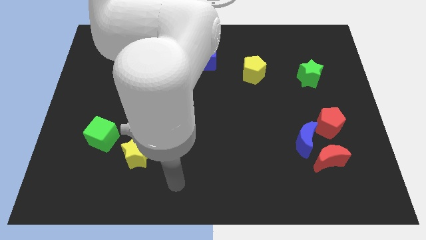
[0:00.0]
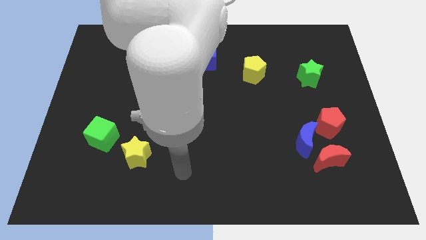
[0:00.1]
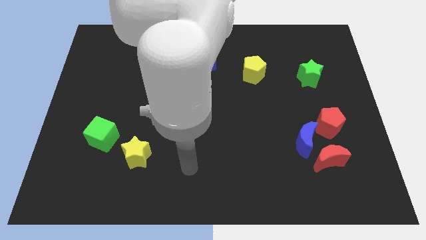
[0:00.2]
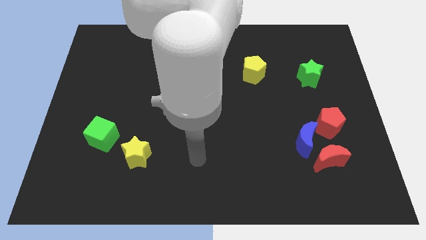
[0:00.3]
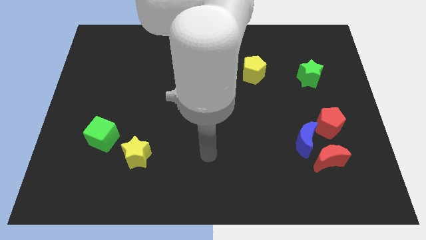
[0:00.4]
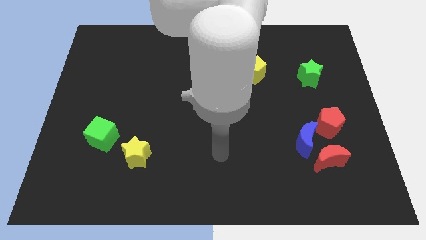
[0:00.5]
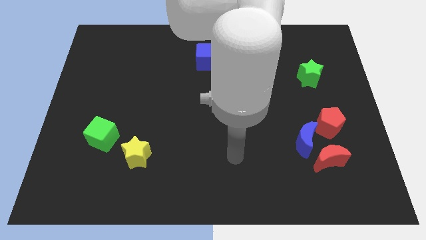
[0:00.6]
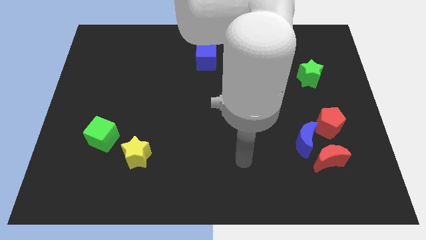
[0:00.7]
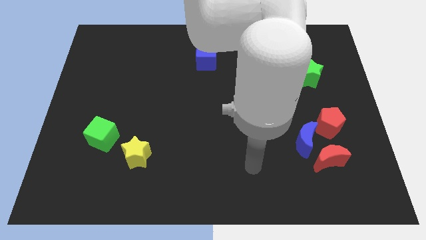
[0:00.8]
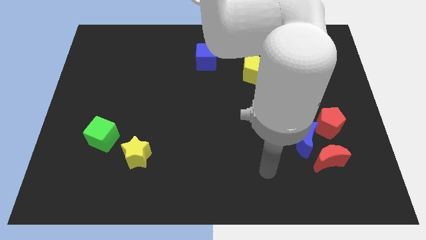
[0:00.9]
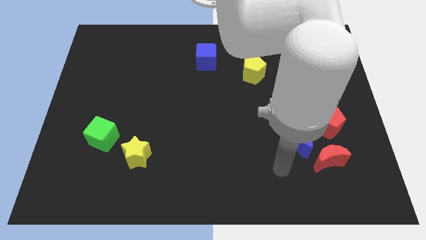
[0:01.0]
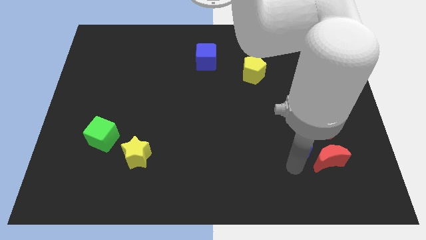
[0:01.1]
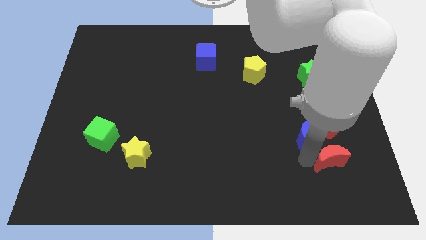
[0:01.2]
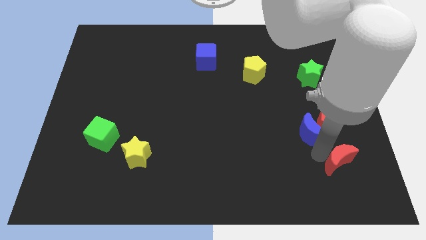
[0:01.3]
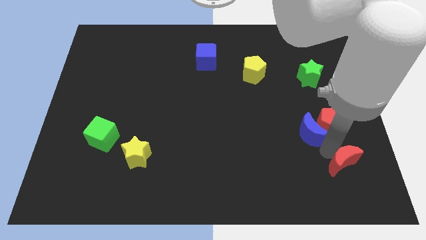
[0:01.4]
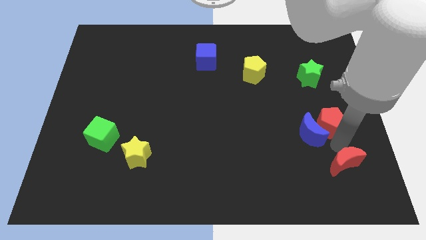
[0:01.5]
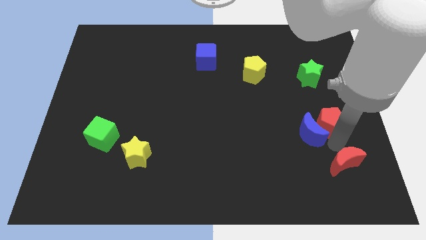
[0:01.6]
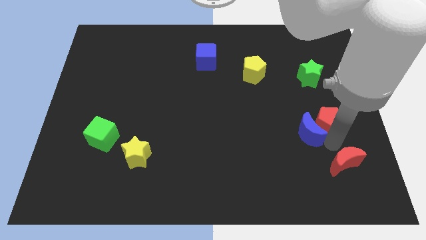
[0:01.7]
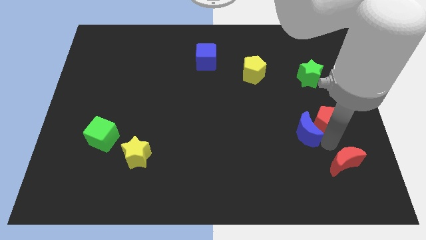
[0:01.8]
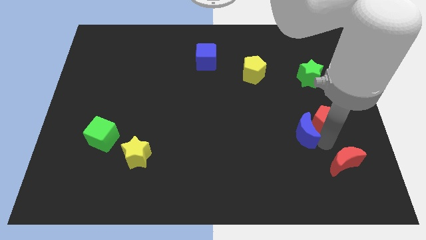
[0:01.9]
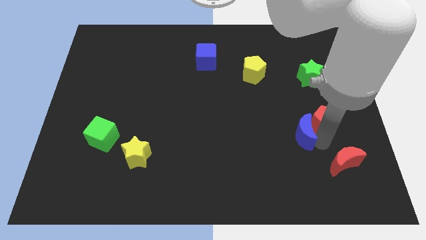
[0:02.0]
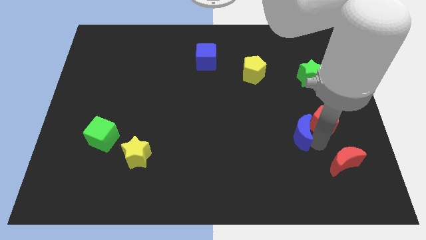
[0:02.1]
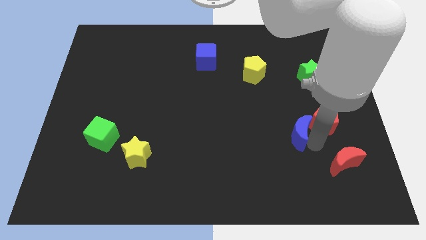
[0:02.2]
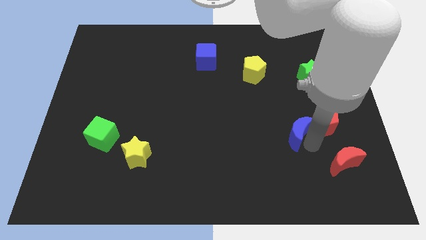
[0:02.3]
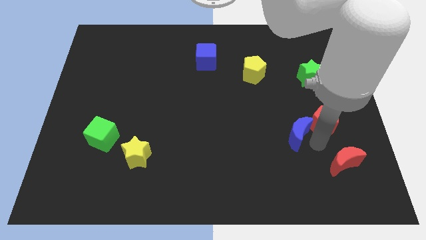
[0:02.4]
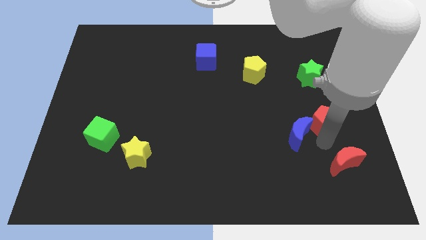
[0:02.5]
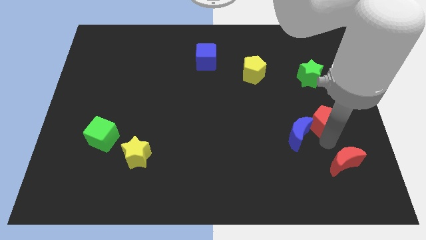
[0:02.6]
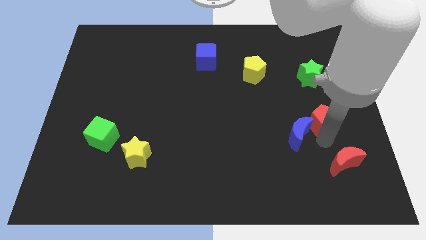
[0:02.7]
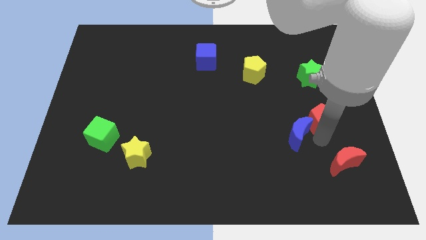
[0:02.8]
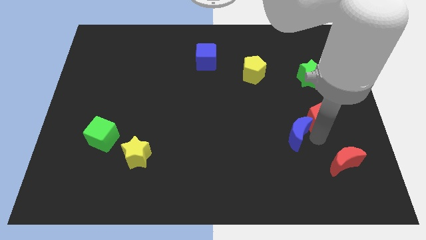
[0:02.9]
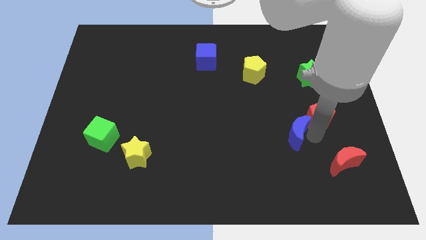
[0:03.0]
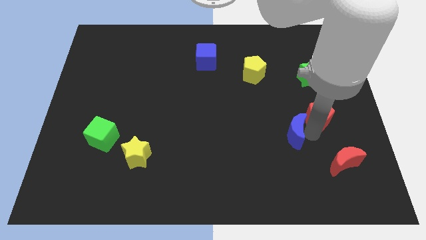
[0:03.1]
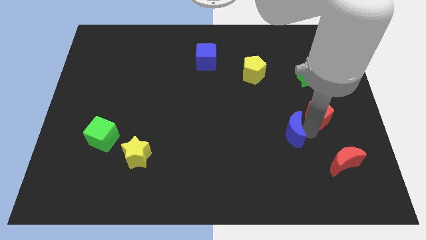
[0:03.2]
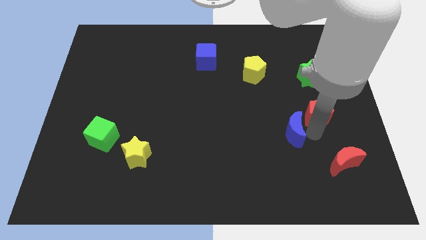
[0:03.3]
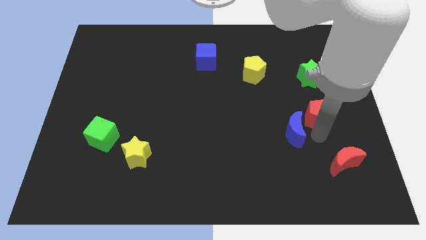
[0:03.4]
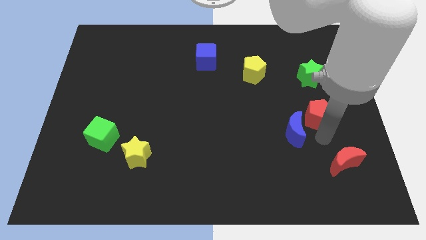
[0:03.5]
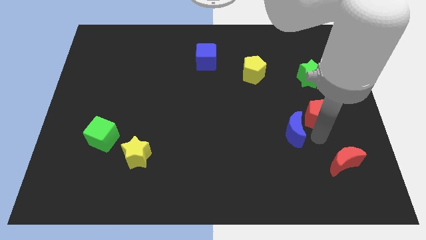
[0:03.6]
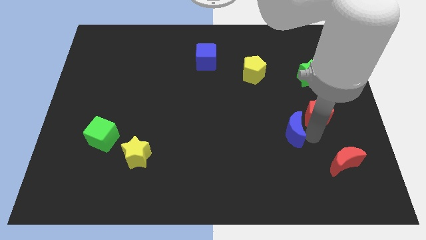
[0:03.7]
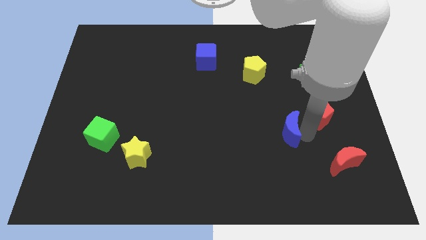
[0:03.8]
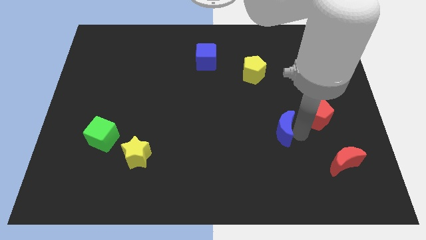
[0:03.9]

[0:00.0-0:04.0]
separate the blue moon from the red moon and red pentagon

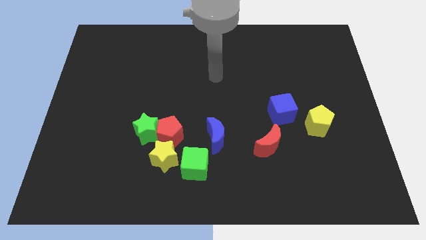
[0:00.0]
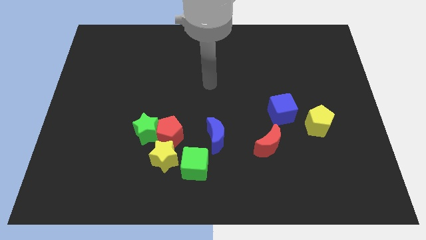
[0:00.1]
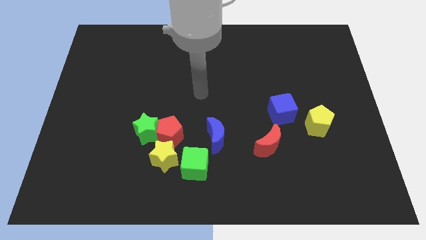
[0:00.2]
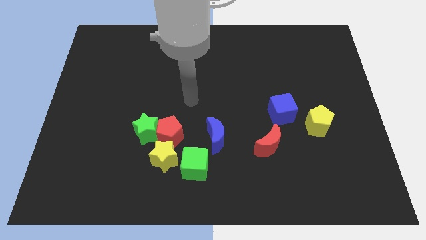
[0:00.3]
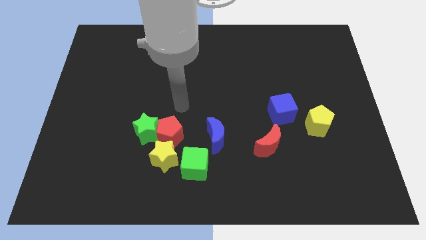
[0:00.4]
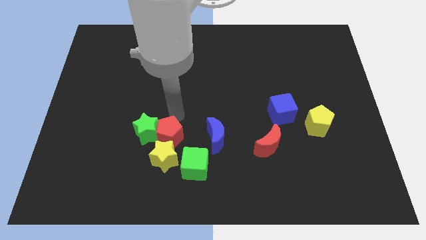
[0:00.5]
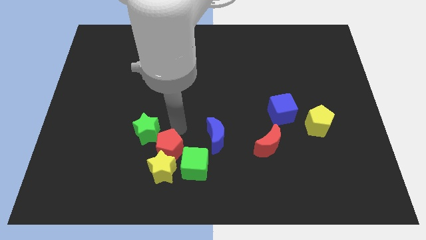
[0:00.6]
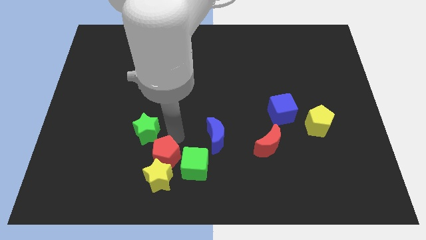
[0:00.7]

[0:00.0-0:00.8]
move the green star away from the red pentagon and yellow star

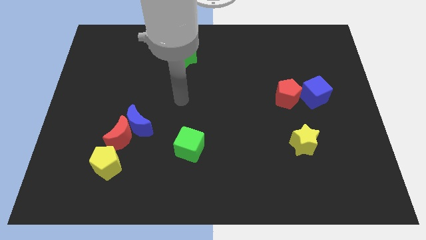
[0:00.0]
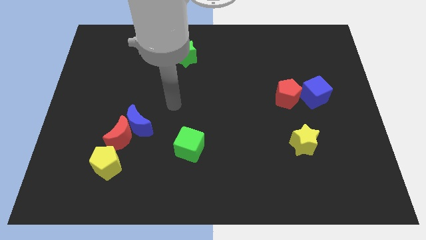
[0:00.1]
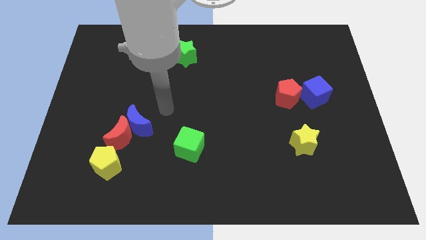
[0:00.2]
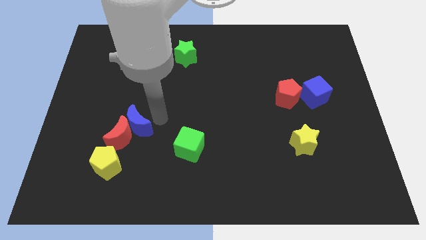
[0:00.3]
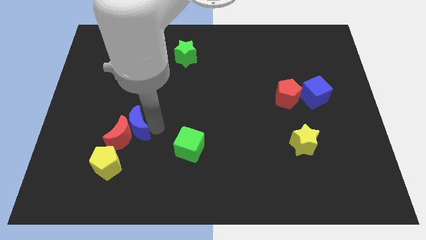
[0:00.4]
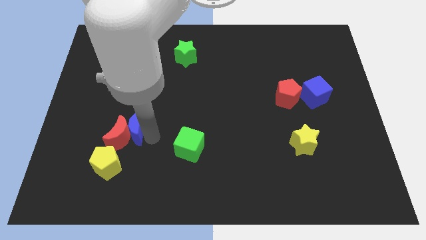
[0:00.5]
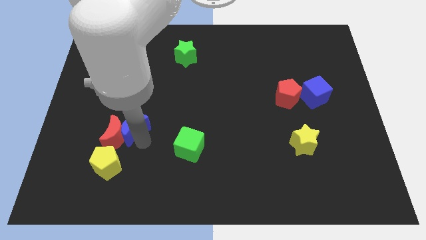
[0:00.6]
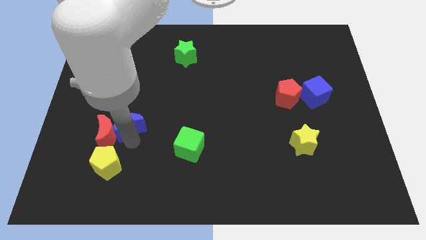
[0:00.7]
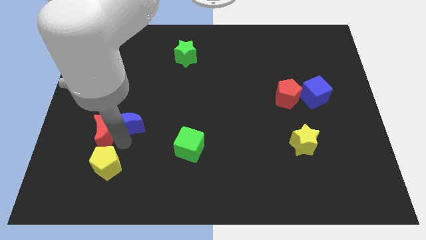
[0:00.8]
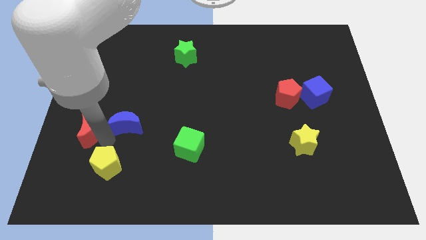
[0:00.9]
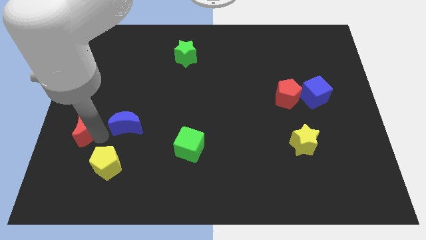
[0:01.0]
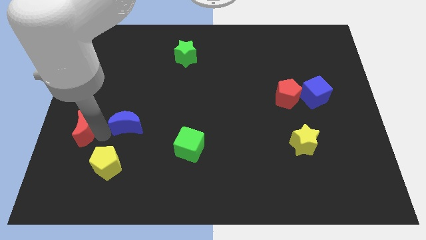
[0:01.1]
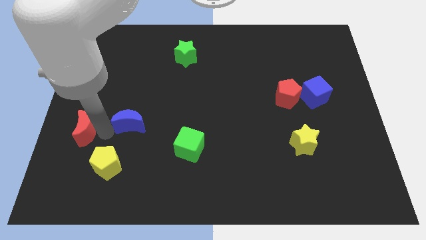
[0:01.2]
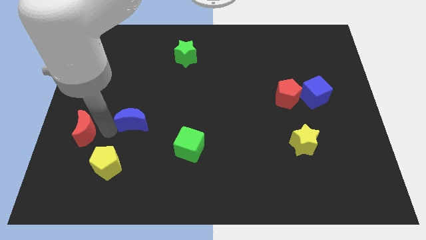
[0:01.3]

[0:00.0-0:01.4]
move the blue moon away from the red moon

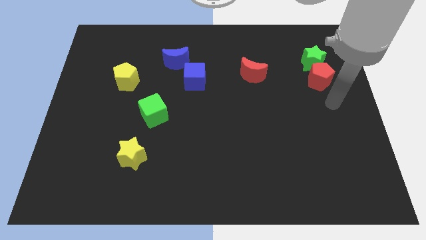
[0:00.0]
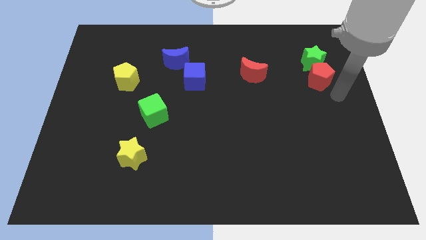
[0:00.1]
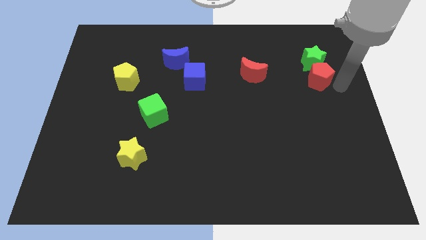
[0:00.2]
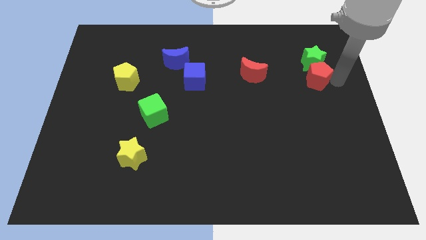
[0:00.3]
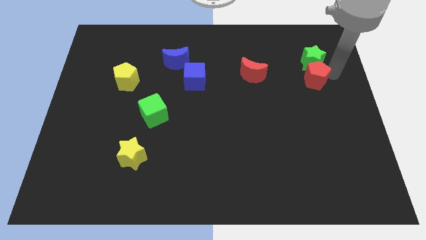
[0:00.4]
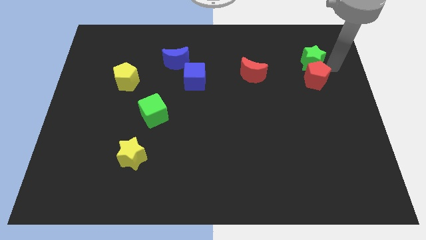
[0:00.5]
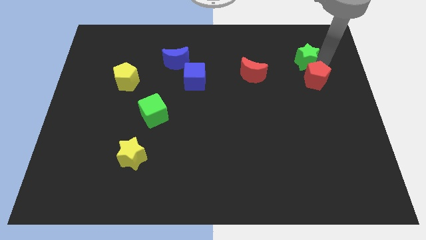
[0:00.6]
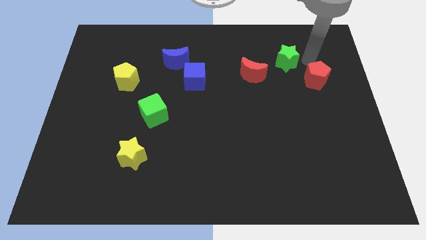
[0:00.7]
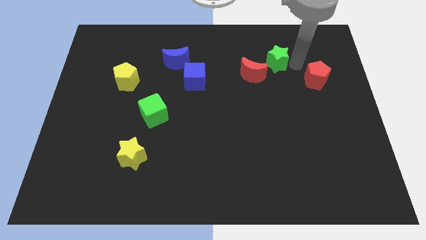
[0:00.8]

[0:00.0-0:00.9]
separate the red pentagon from the green star

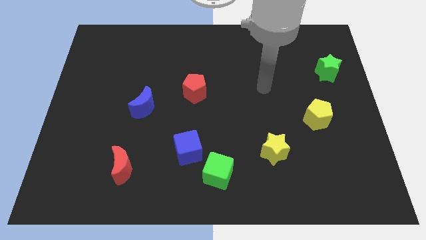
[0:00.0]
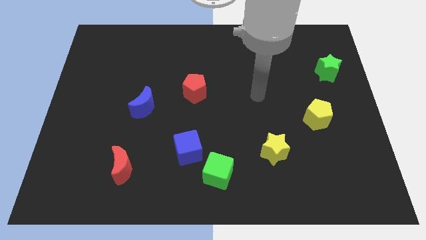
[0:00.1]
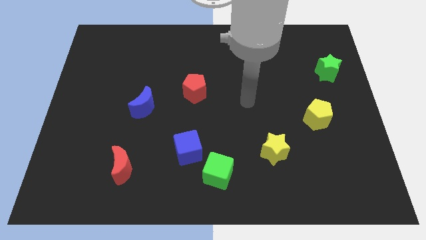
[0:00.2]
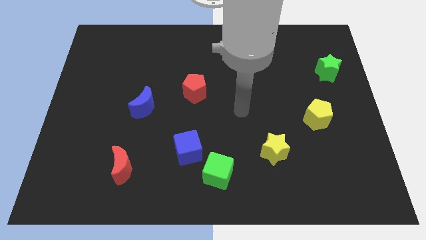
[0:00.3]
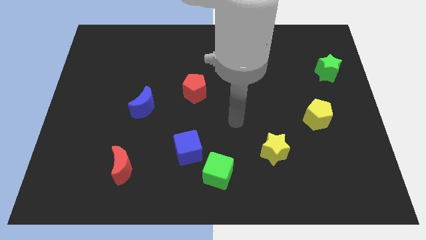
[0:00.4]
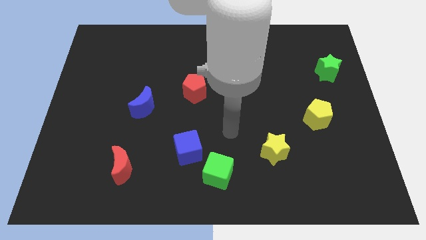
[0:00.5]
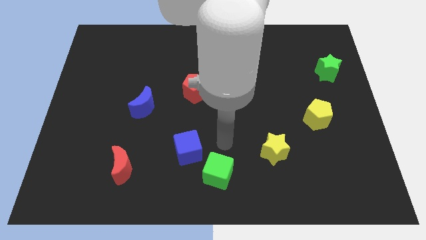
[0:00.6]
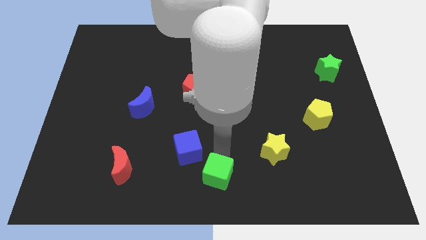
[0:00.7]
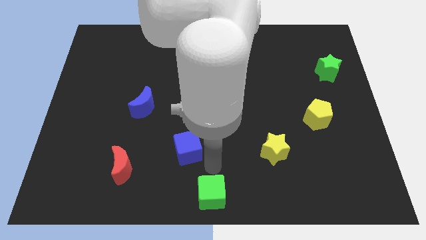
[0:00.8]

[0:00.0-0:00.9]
pull the blue cube apart from the green cube

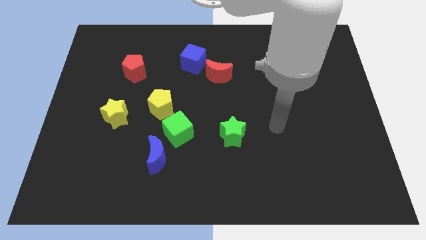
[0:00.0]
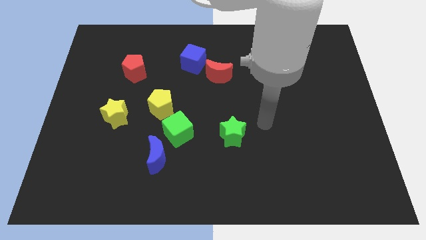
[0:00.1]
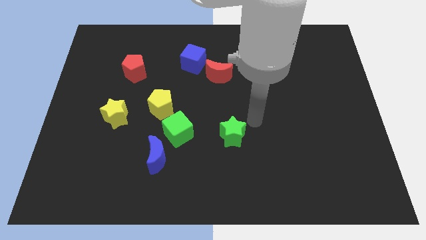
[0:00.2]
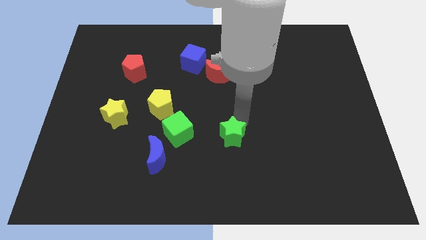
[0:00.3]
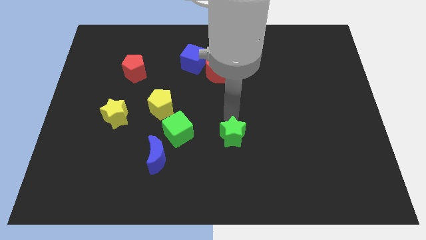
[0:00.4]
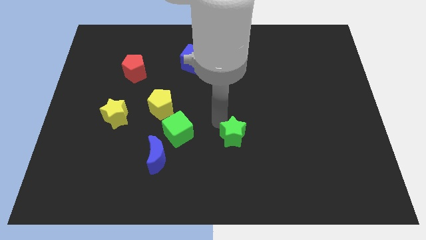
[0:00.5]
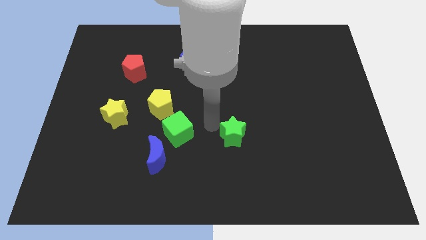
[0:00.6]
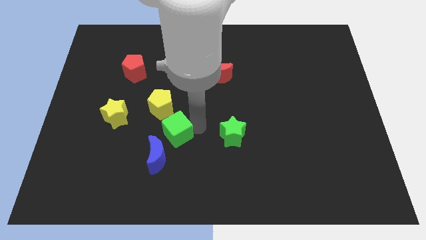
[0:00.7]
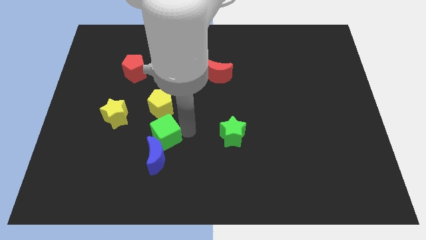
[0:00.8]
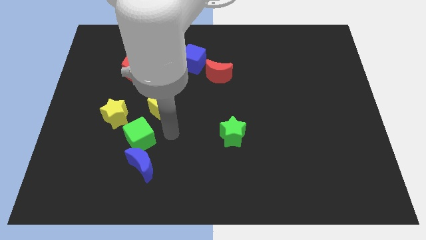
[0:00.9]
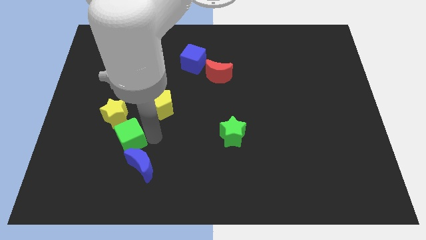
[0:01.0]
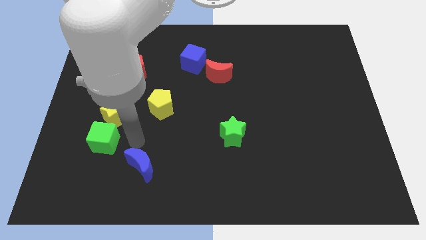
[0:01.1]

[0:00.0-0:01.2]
separate the blue moon from the green cube
